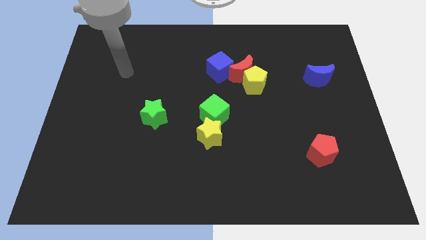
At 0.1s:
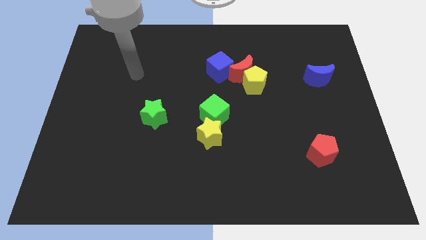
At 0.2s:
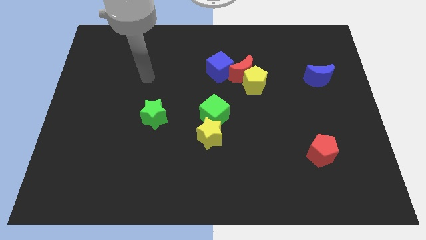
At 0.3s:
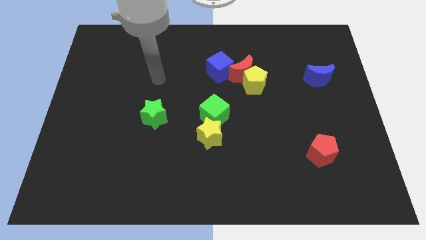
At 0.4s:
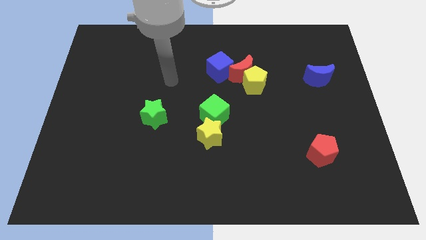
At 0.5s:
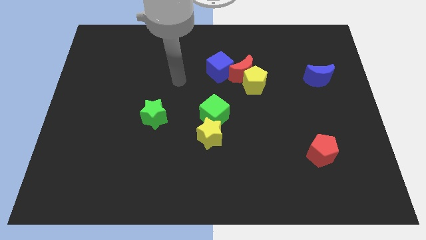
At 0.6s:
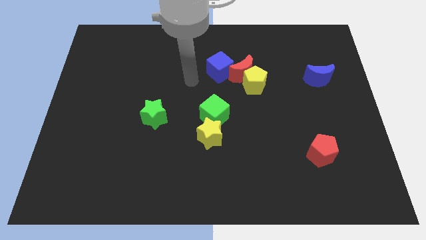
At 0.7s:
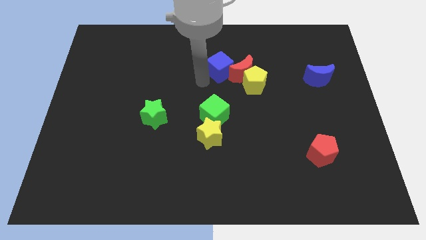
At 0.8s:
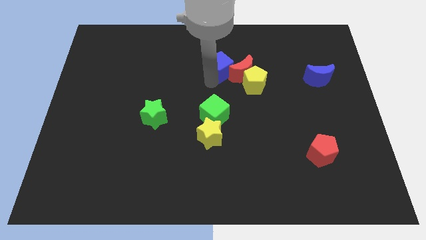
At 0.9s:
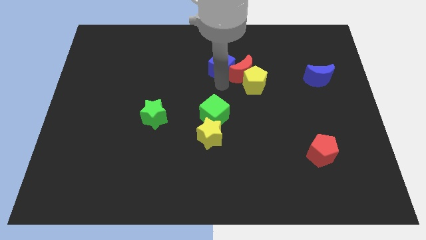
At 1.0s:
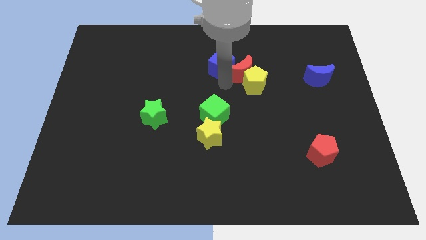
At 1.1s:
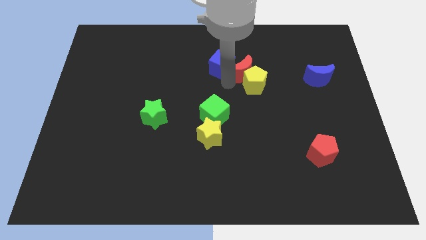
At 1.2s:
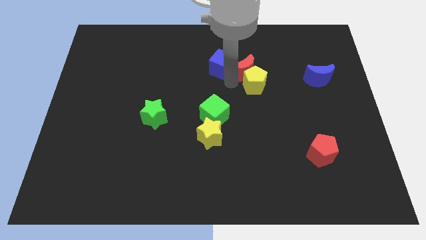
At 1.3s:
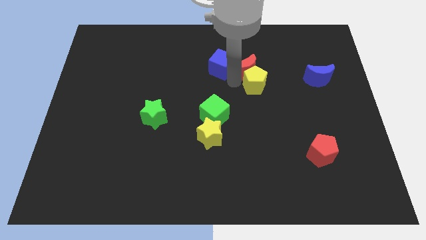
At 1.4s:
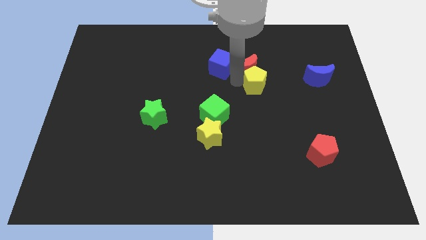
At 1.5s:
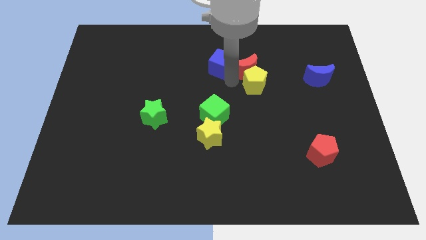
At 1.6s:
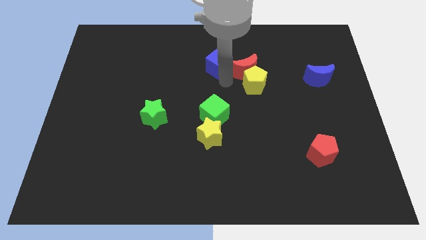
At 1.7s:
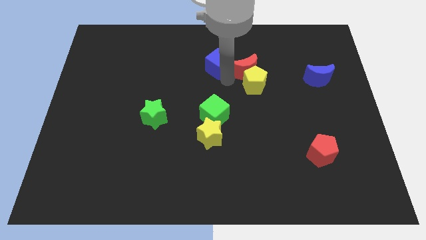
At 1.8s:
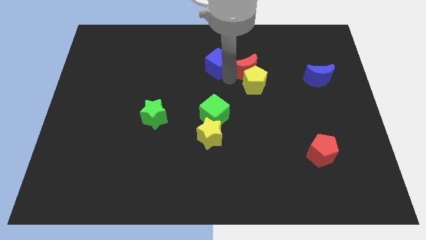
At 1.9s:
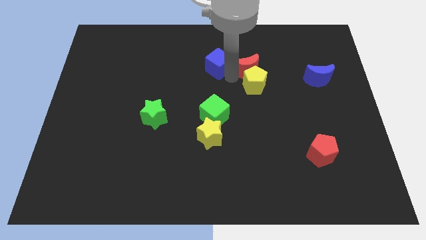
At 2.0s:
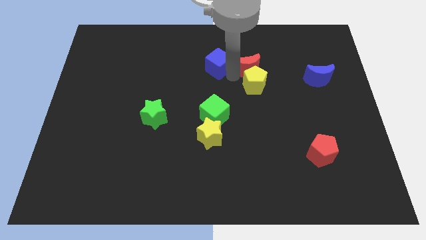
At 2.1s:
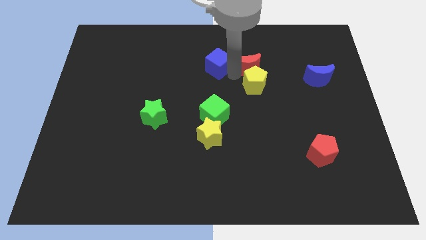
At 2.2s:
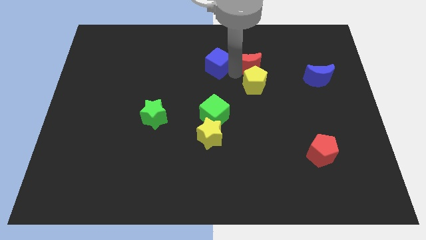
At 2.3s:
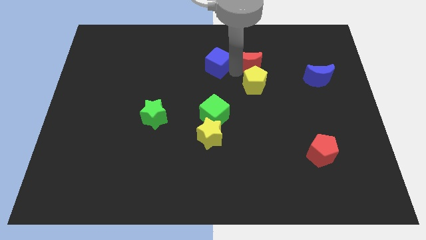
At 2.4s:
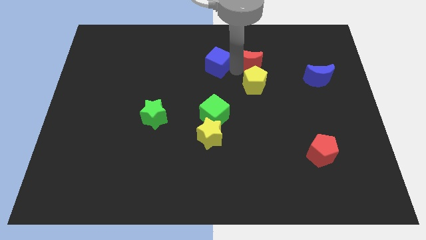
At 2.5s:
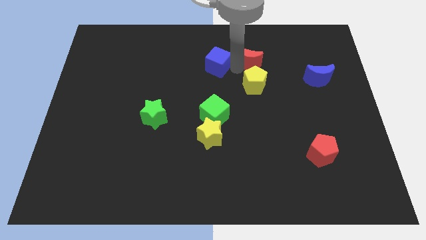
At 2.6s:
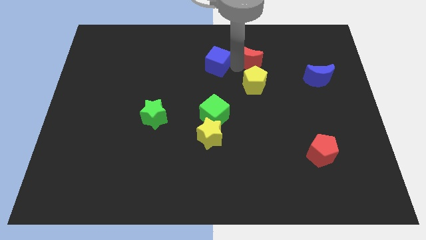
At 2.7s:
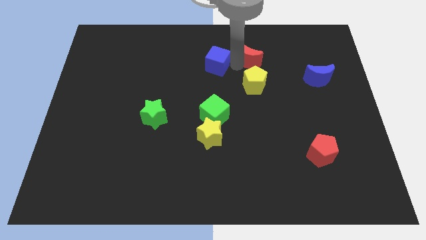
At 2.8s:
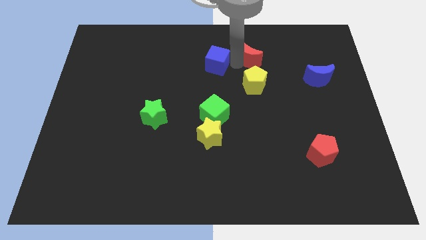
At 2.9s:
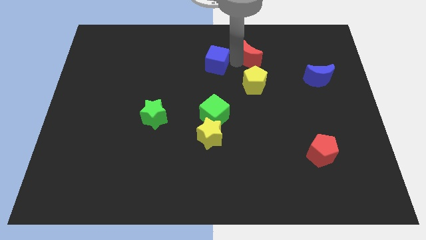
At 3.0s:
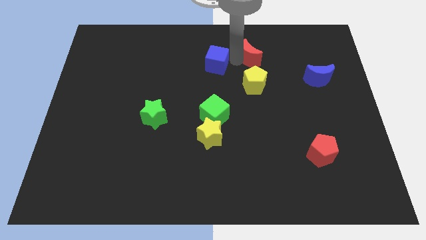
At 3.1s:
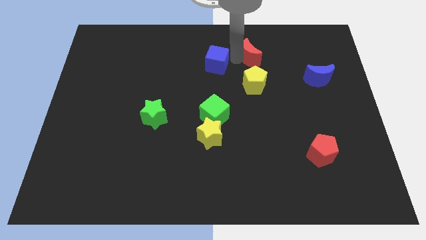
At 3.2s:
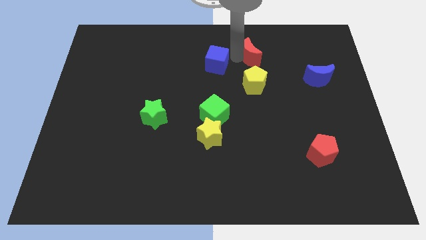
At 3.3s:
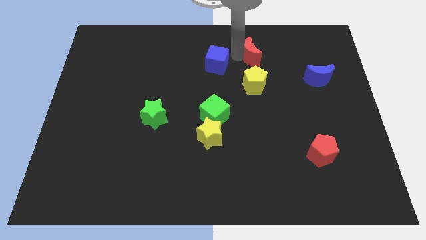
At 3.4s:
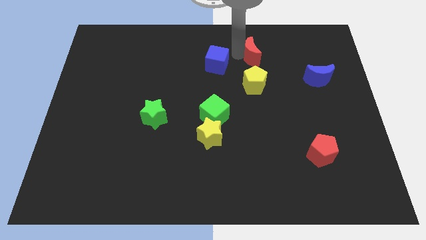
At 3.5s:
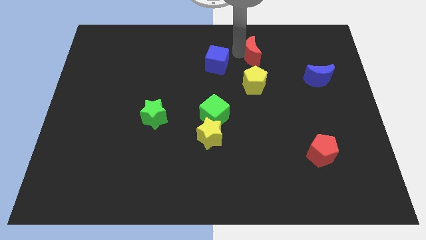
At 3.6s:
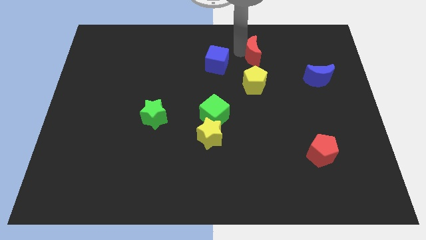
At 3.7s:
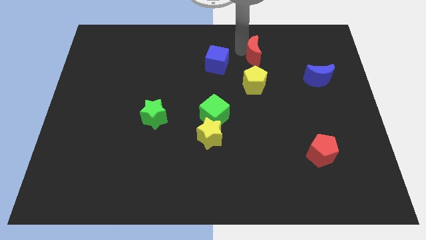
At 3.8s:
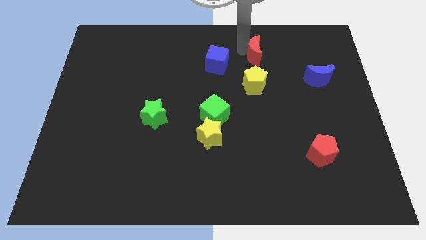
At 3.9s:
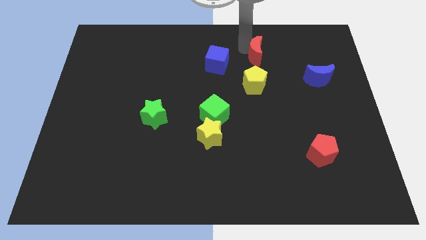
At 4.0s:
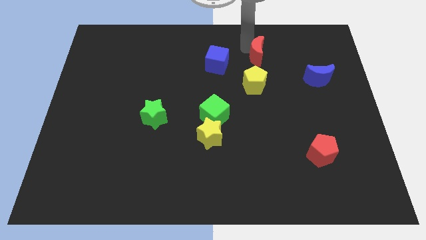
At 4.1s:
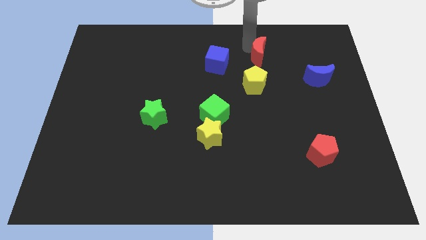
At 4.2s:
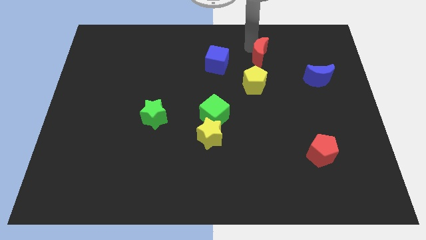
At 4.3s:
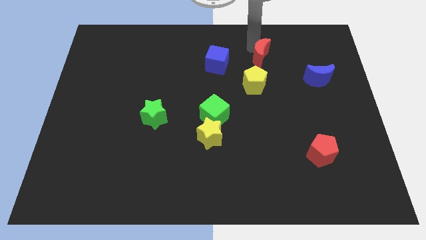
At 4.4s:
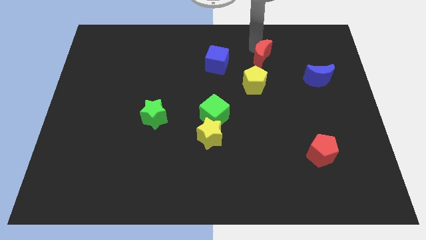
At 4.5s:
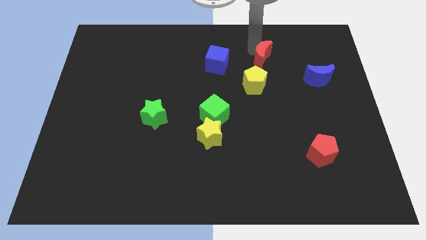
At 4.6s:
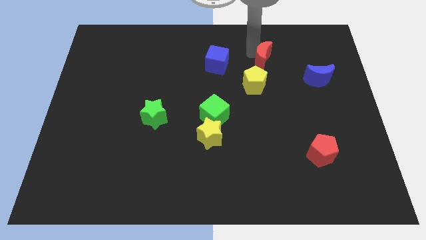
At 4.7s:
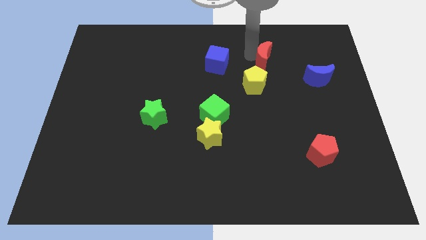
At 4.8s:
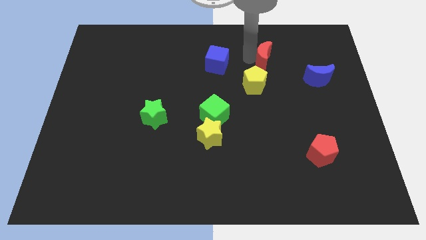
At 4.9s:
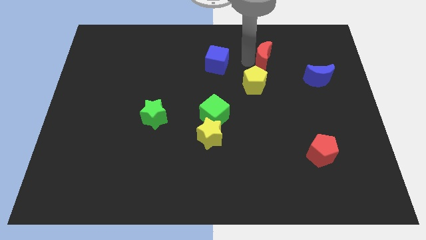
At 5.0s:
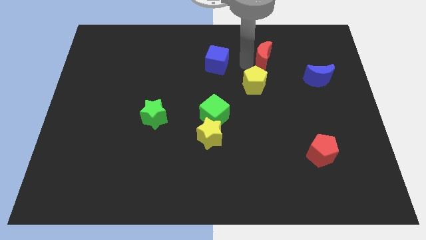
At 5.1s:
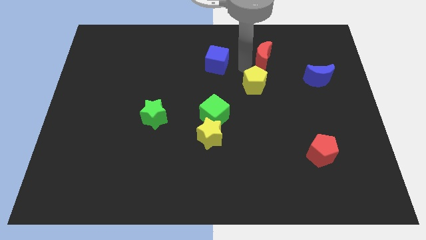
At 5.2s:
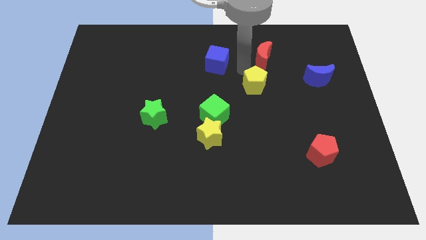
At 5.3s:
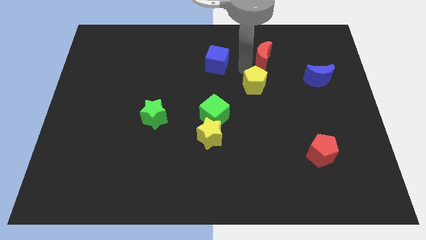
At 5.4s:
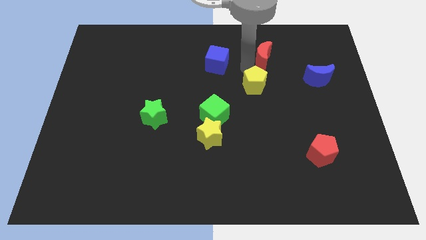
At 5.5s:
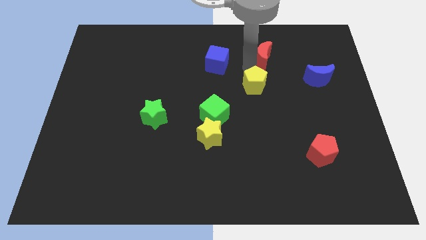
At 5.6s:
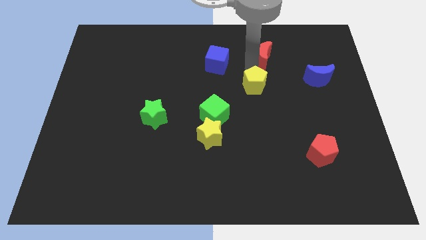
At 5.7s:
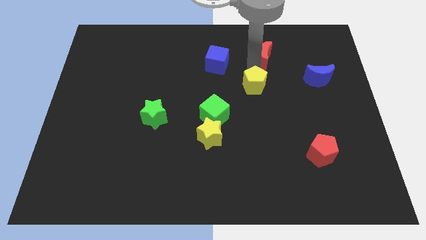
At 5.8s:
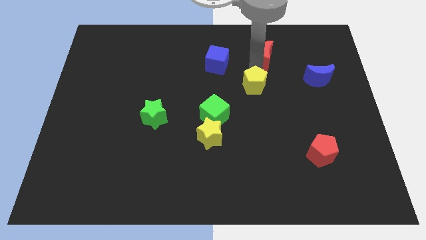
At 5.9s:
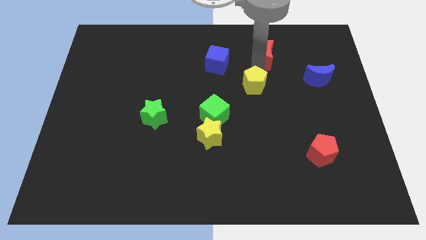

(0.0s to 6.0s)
separate the red moon from the yellow pentagon and blue cube

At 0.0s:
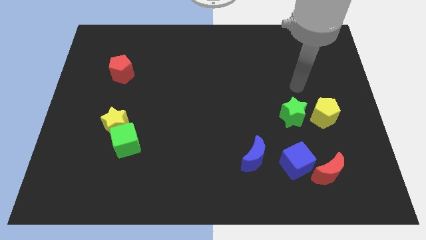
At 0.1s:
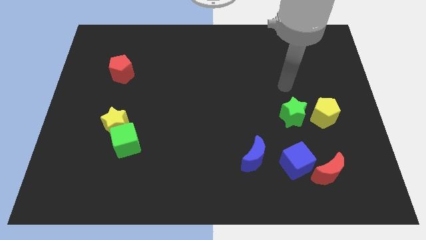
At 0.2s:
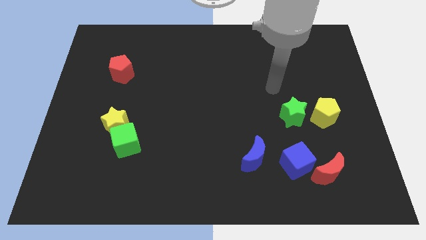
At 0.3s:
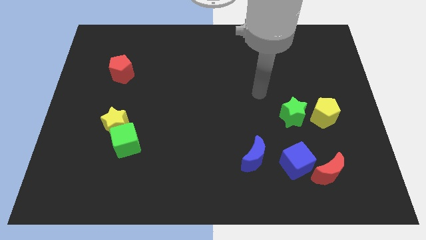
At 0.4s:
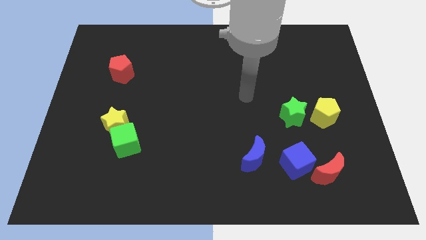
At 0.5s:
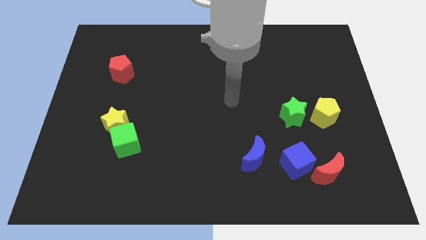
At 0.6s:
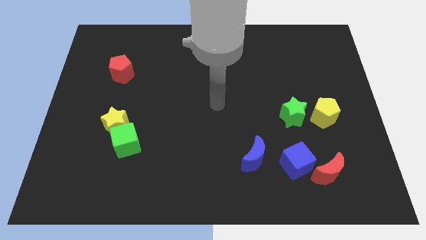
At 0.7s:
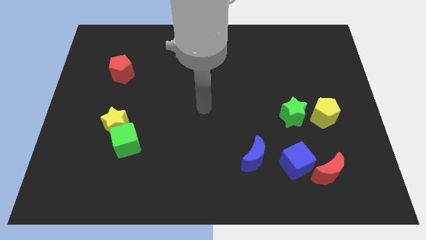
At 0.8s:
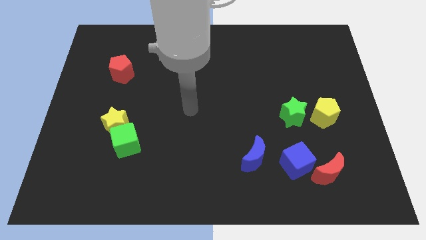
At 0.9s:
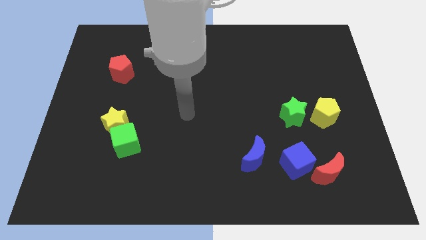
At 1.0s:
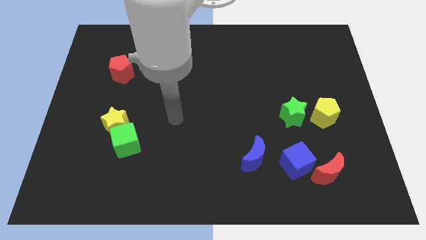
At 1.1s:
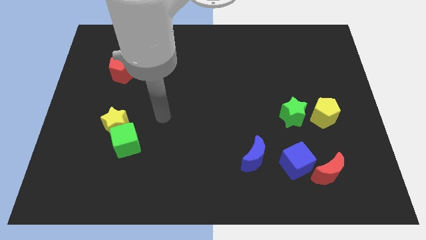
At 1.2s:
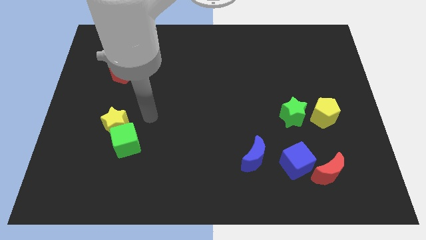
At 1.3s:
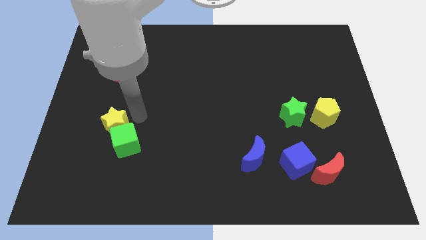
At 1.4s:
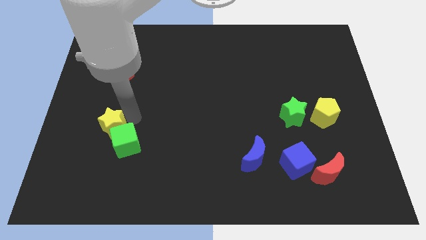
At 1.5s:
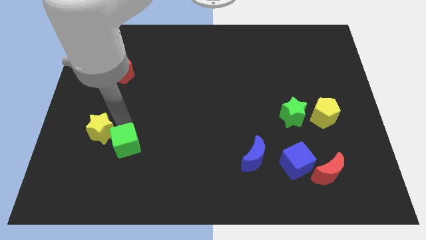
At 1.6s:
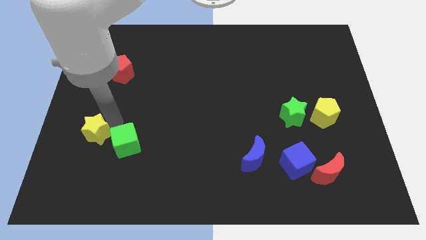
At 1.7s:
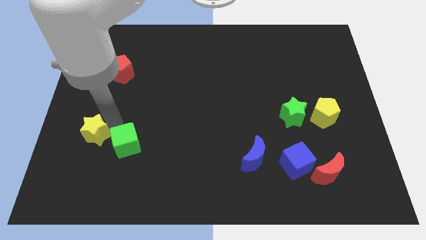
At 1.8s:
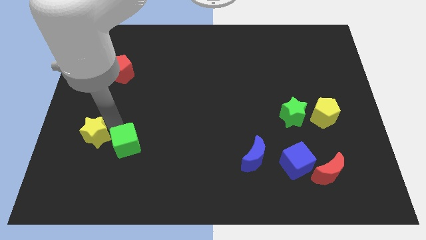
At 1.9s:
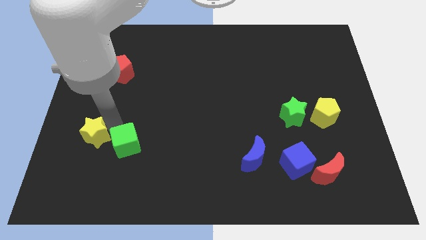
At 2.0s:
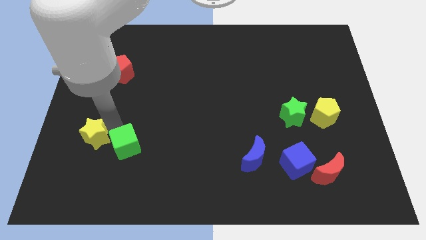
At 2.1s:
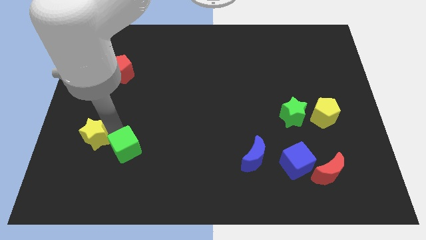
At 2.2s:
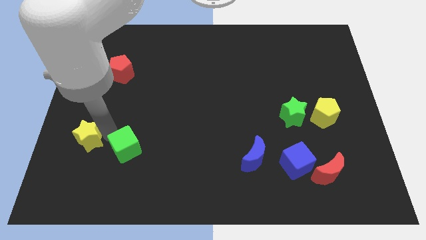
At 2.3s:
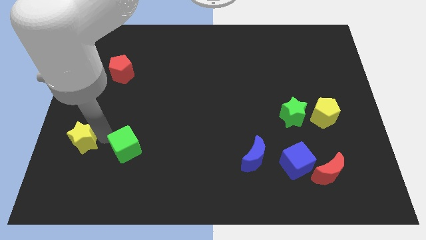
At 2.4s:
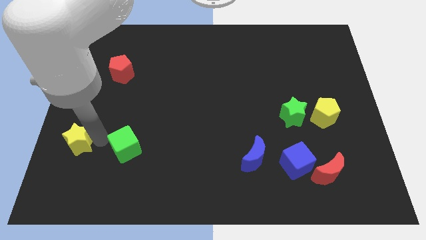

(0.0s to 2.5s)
move the green cube away from the yellow star

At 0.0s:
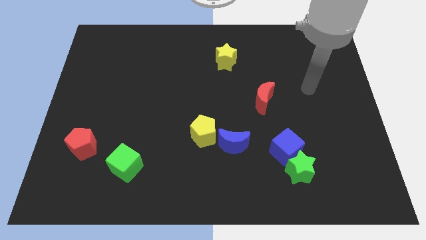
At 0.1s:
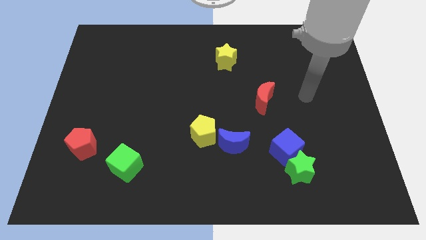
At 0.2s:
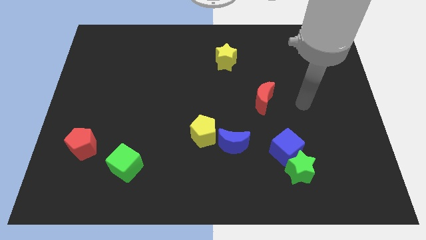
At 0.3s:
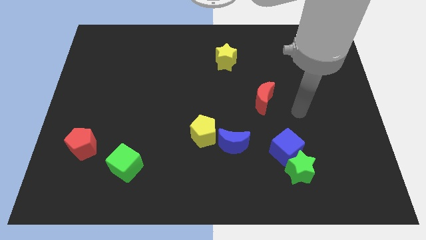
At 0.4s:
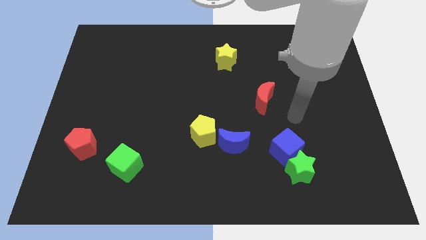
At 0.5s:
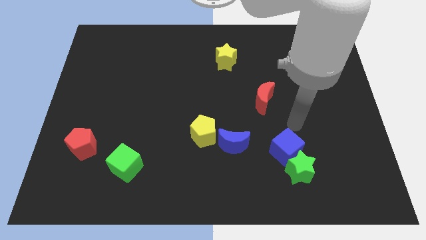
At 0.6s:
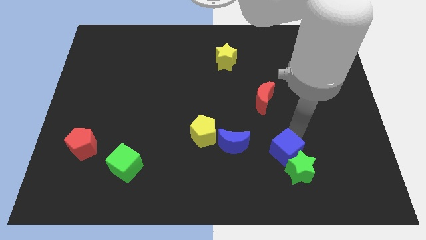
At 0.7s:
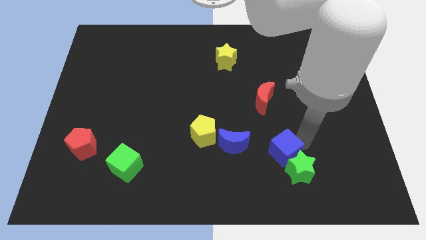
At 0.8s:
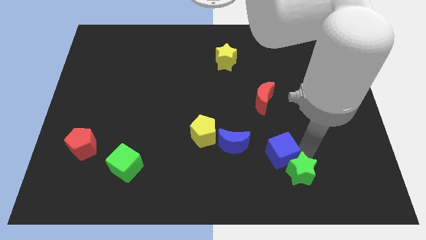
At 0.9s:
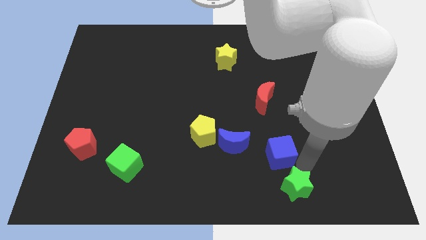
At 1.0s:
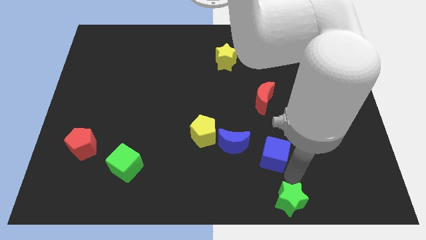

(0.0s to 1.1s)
pull the blue cube apart from the green star
